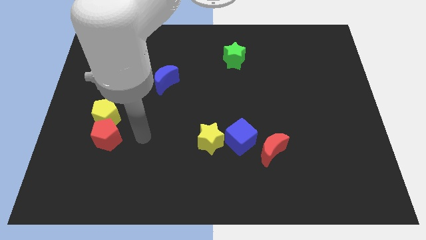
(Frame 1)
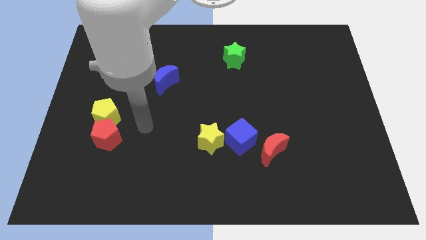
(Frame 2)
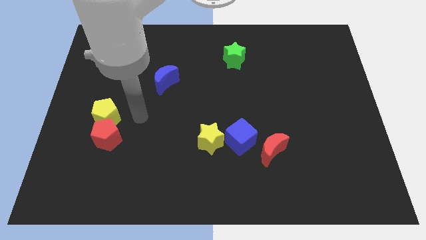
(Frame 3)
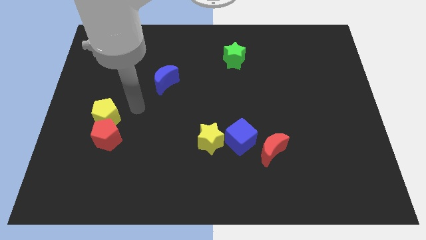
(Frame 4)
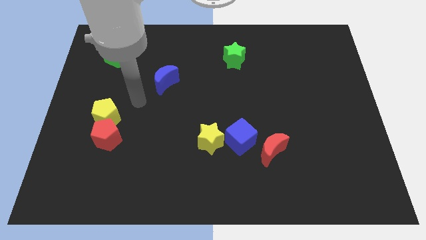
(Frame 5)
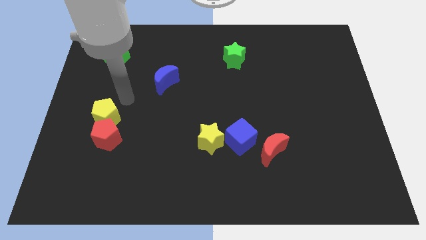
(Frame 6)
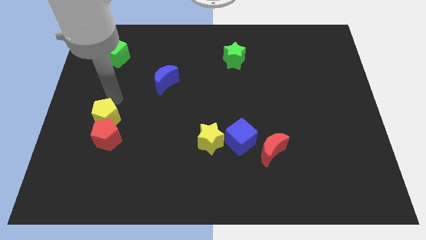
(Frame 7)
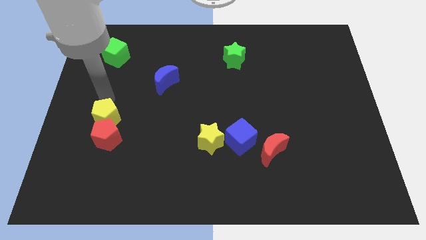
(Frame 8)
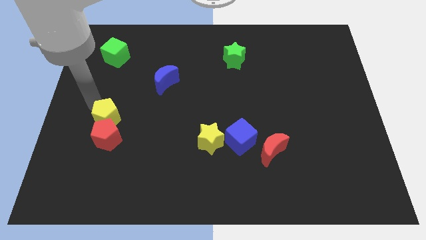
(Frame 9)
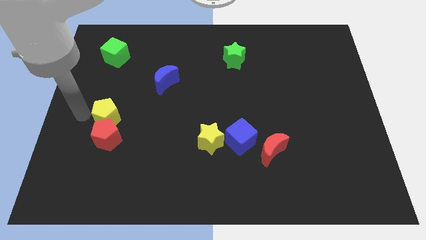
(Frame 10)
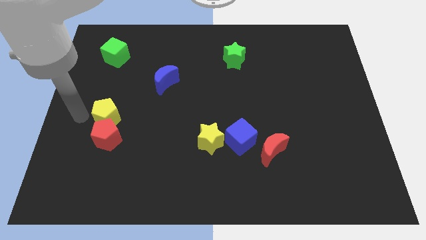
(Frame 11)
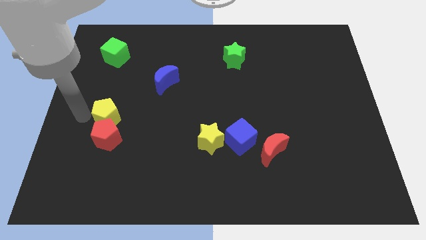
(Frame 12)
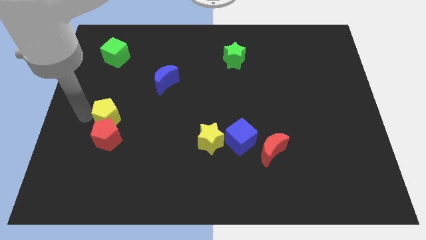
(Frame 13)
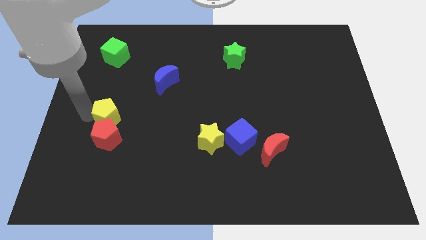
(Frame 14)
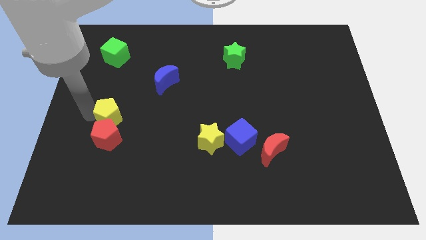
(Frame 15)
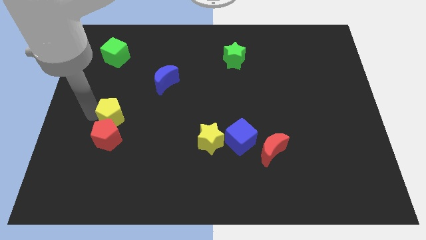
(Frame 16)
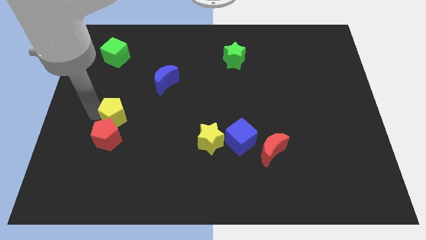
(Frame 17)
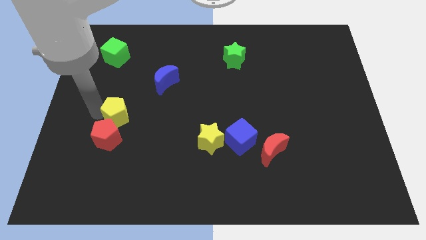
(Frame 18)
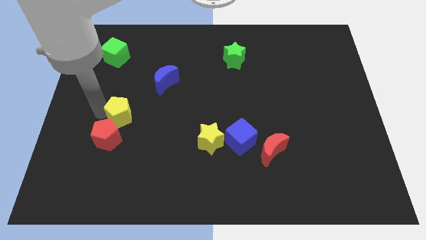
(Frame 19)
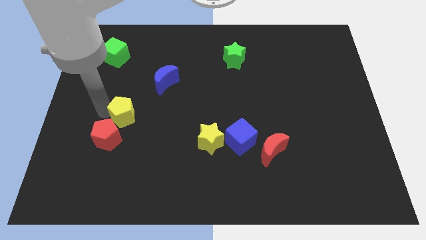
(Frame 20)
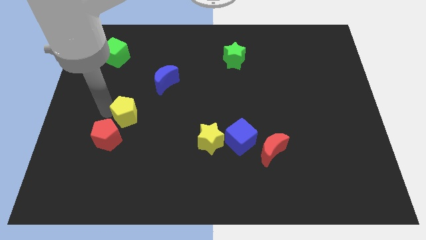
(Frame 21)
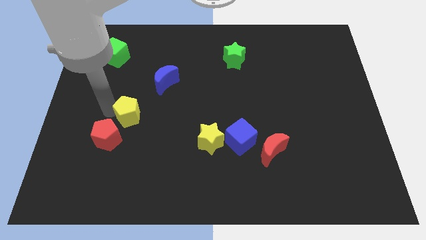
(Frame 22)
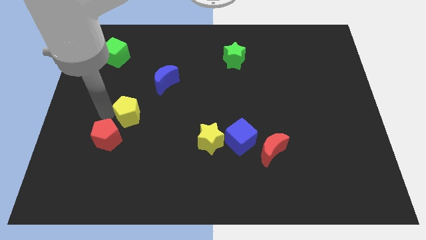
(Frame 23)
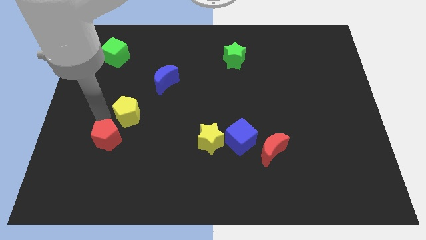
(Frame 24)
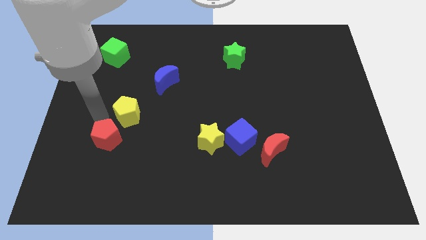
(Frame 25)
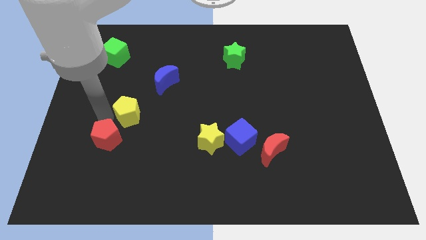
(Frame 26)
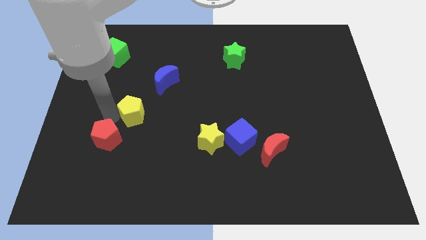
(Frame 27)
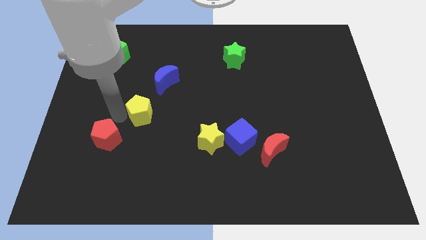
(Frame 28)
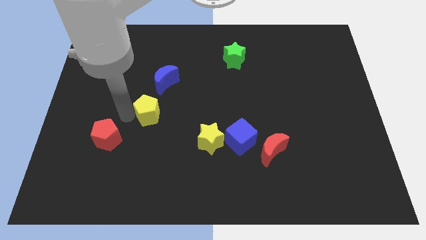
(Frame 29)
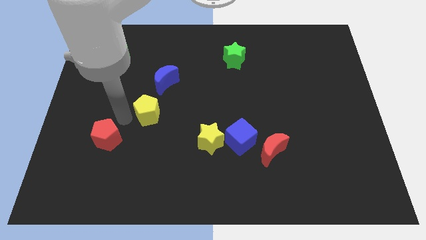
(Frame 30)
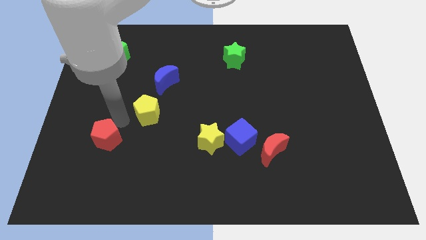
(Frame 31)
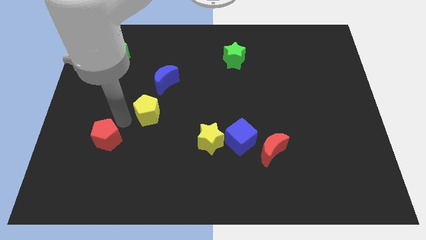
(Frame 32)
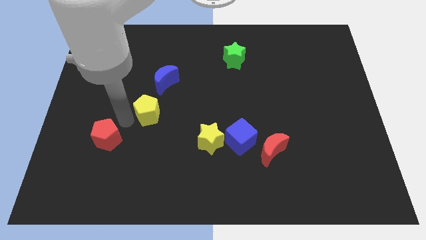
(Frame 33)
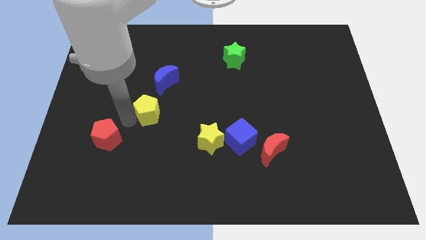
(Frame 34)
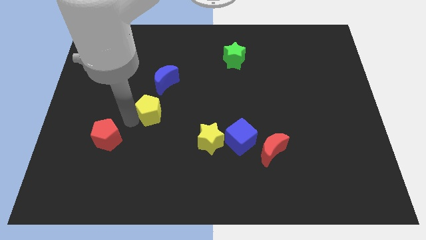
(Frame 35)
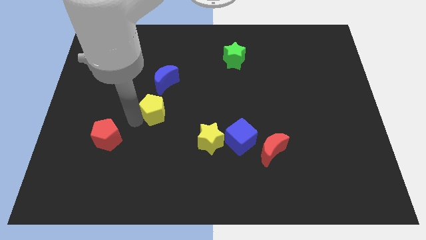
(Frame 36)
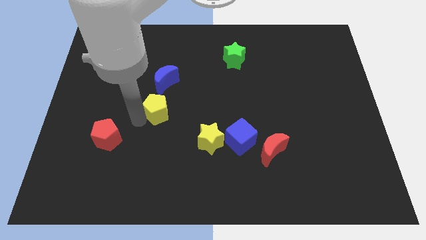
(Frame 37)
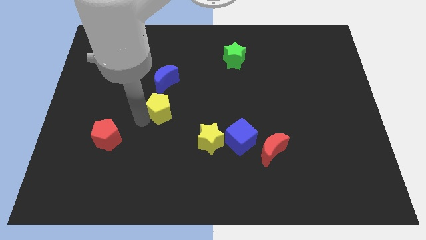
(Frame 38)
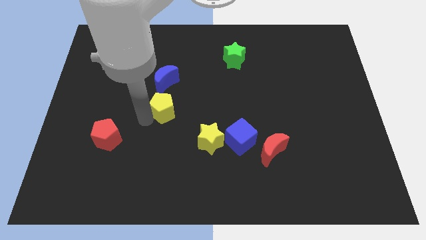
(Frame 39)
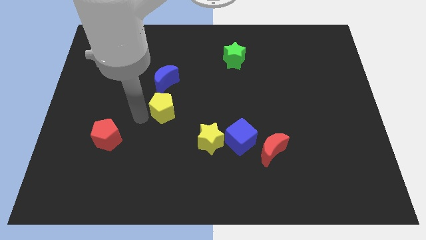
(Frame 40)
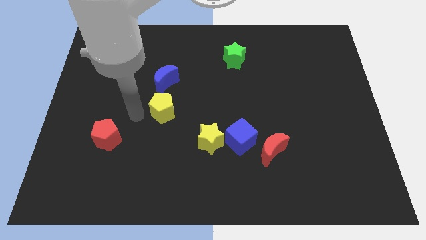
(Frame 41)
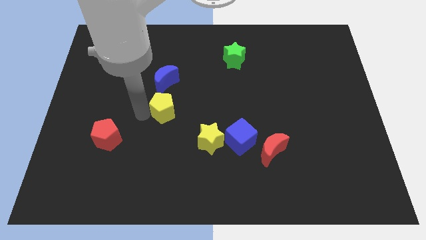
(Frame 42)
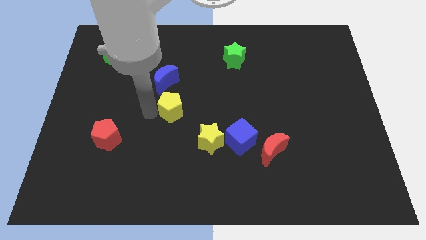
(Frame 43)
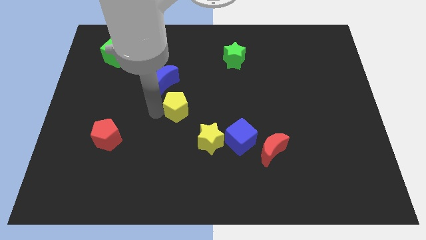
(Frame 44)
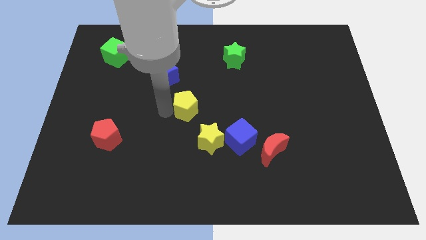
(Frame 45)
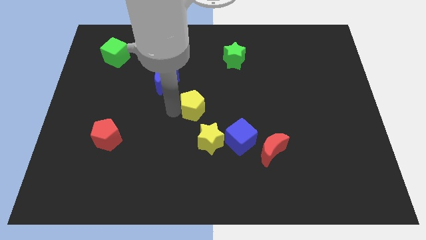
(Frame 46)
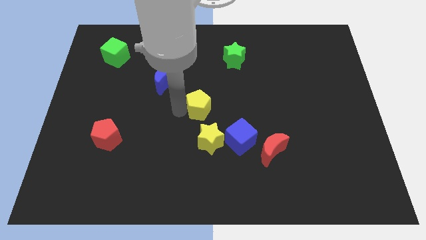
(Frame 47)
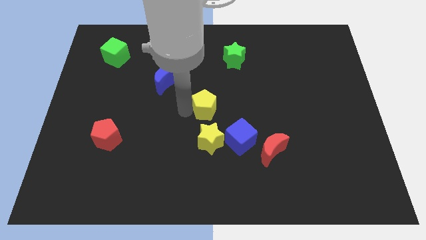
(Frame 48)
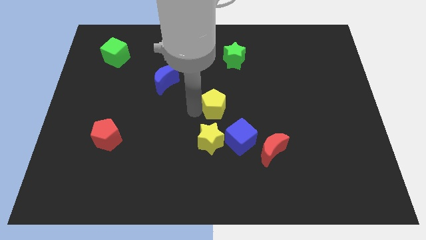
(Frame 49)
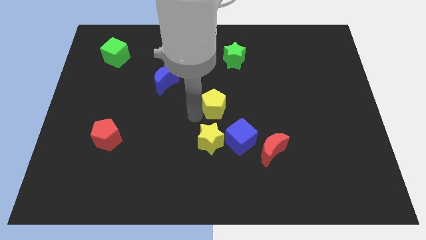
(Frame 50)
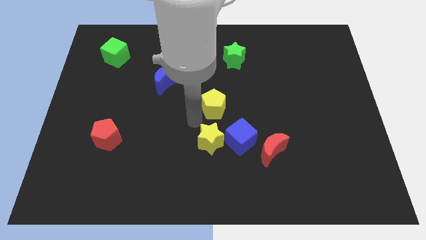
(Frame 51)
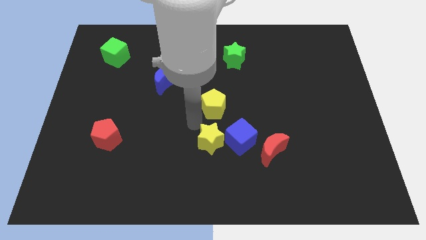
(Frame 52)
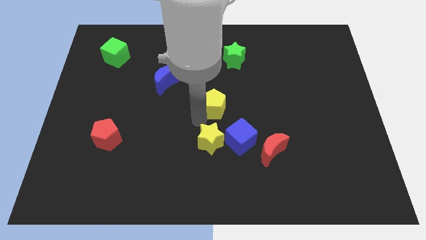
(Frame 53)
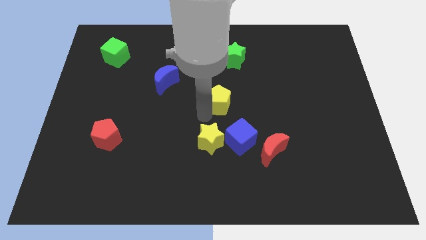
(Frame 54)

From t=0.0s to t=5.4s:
push the yellow pentagon to the bottom side of the green star

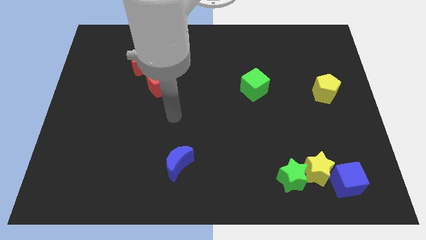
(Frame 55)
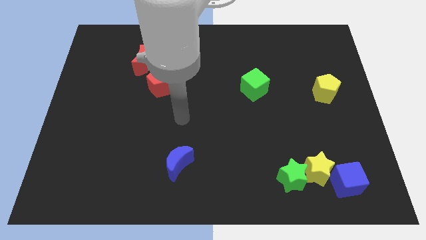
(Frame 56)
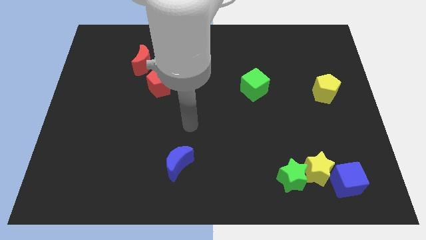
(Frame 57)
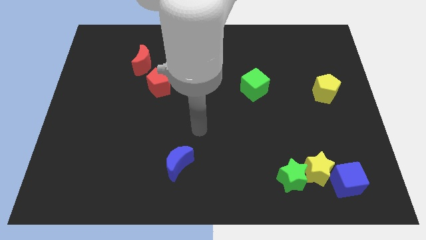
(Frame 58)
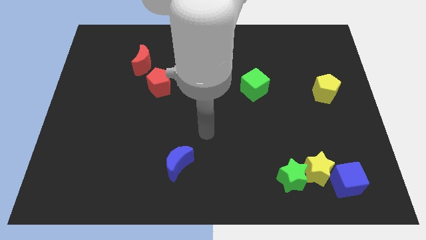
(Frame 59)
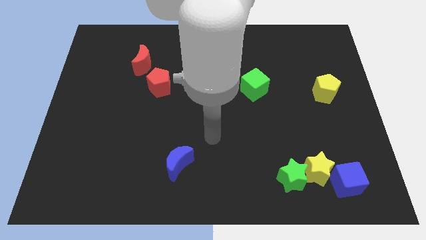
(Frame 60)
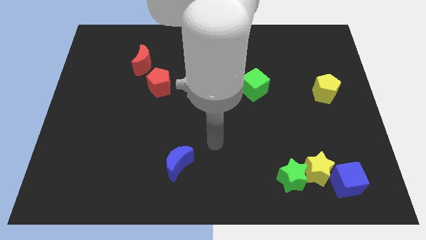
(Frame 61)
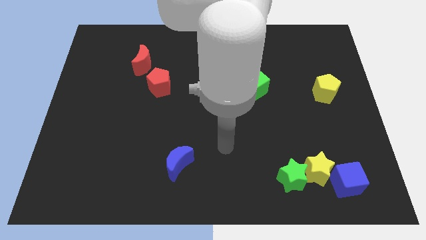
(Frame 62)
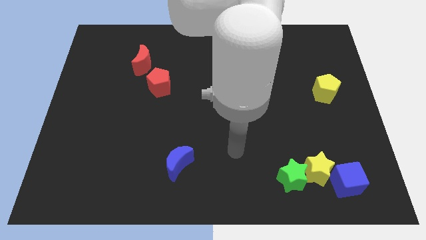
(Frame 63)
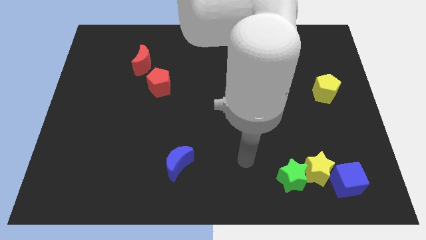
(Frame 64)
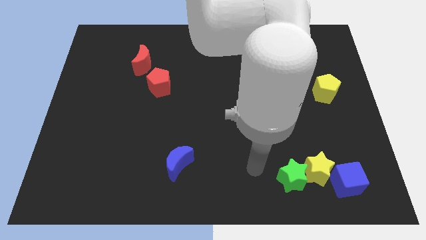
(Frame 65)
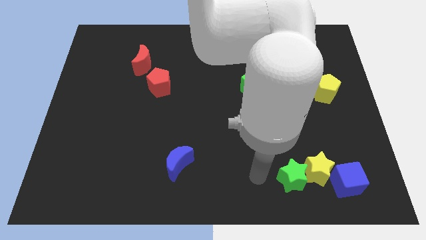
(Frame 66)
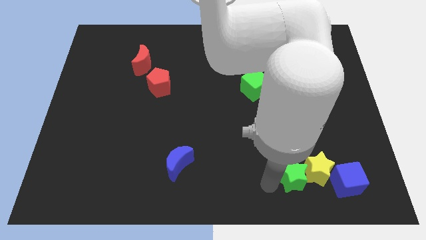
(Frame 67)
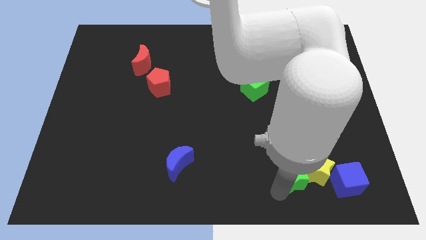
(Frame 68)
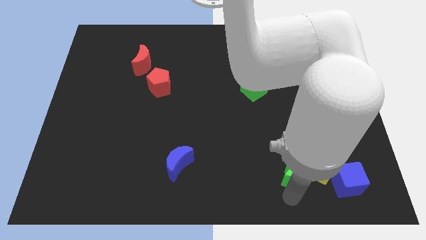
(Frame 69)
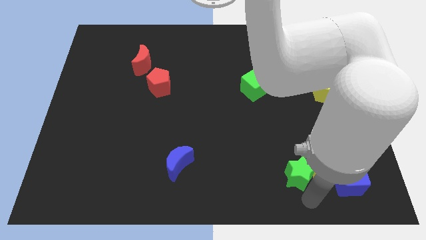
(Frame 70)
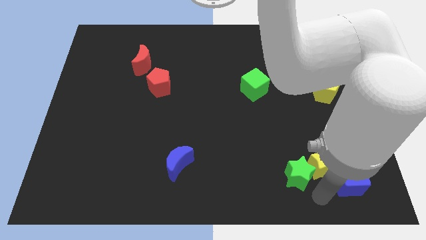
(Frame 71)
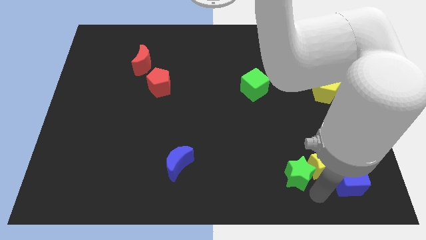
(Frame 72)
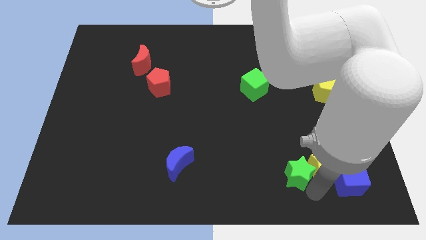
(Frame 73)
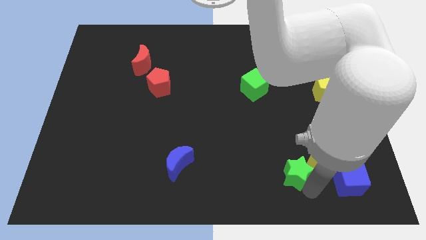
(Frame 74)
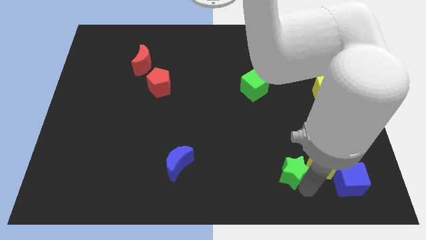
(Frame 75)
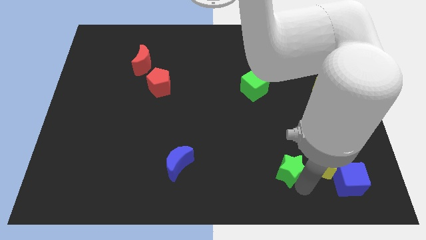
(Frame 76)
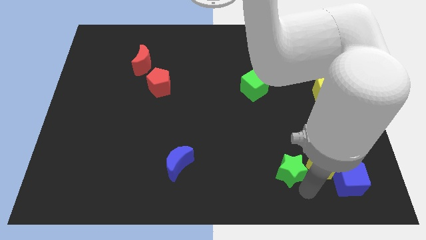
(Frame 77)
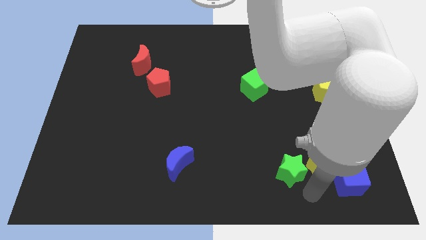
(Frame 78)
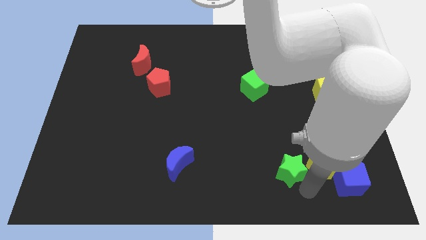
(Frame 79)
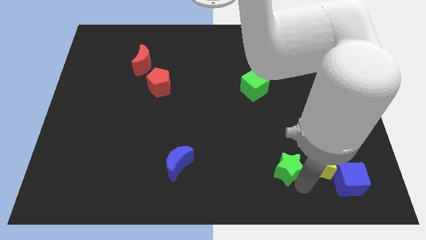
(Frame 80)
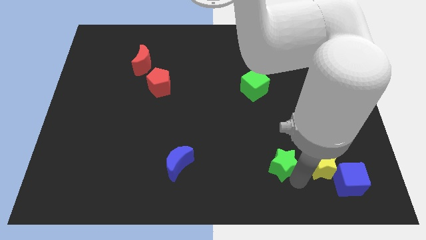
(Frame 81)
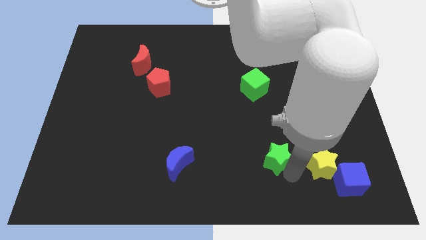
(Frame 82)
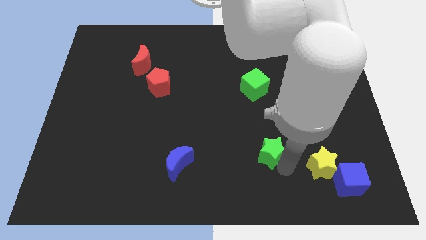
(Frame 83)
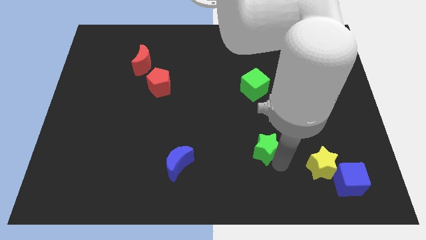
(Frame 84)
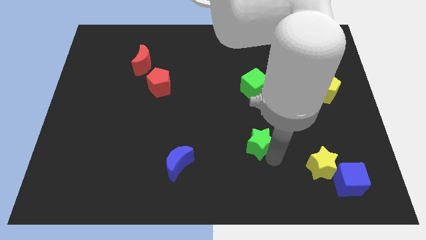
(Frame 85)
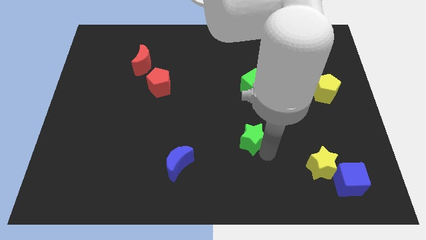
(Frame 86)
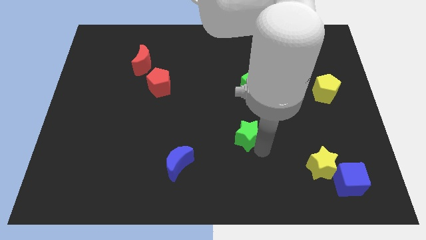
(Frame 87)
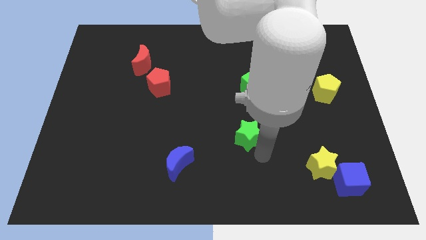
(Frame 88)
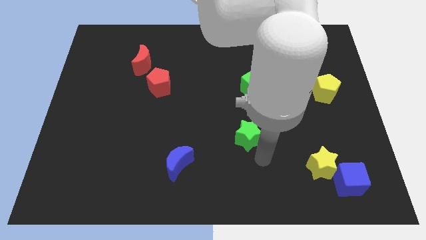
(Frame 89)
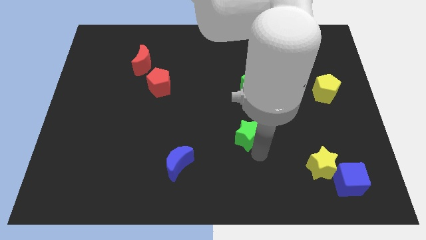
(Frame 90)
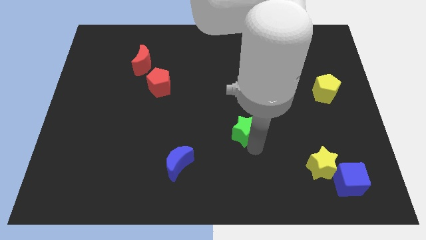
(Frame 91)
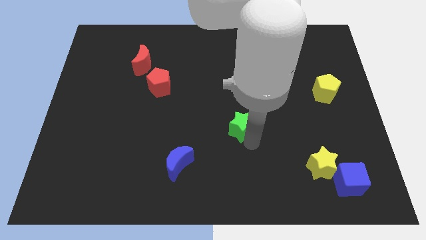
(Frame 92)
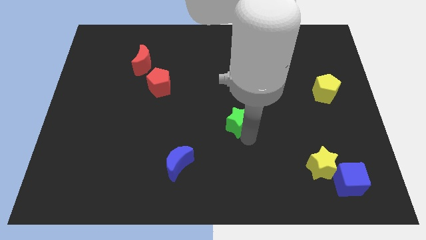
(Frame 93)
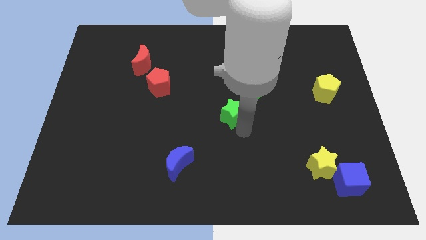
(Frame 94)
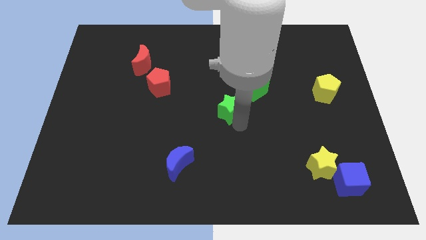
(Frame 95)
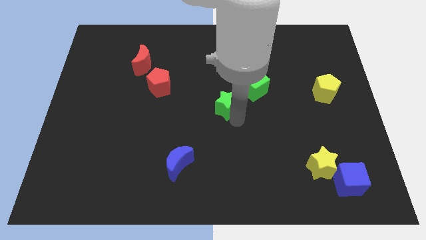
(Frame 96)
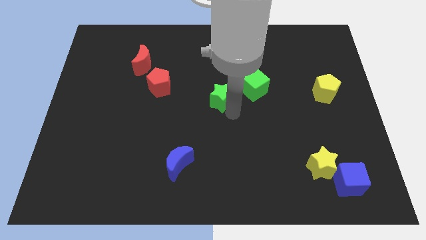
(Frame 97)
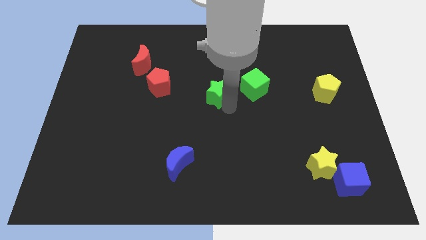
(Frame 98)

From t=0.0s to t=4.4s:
put the green star right of the red pentagon
